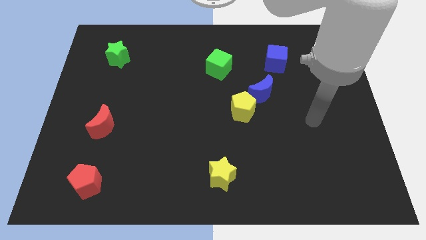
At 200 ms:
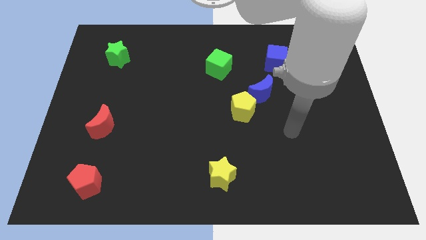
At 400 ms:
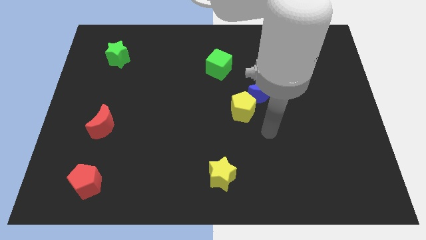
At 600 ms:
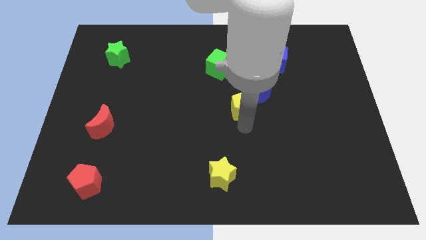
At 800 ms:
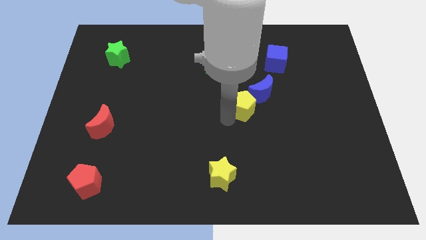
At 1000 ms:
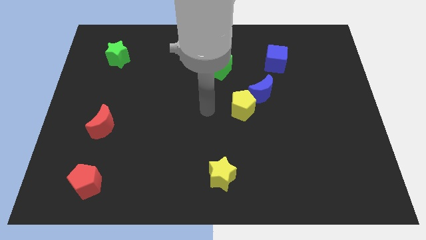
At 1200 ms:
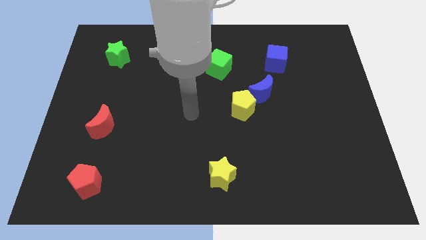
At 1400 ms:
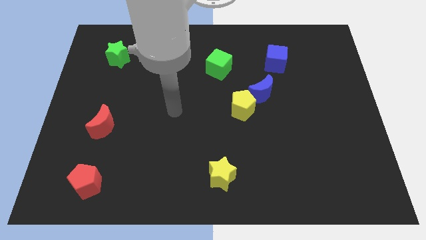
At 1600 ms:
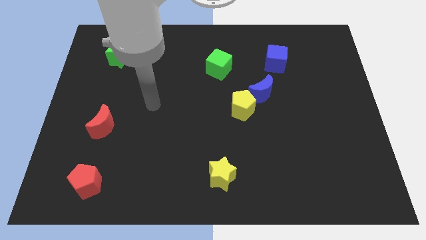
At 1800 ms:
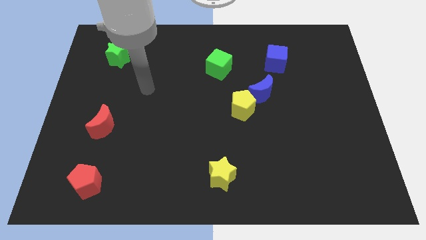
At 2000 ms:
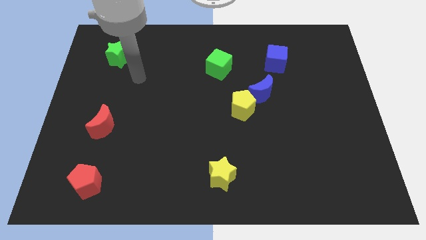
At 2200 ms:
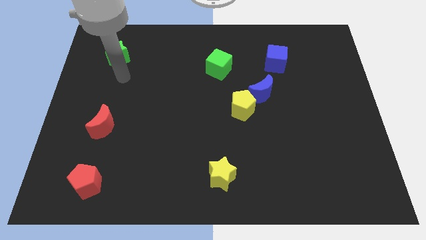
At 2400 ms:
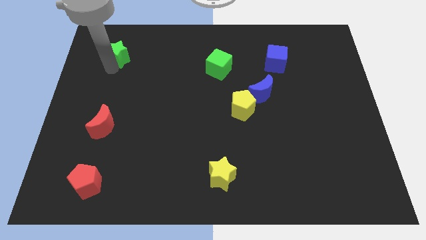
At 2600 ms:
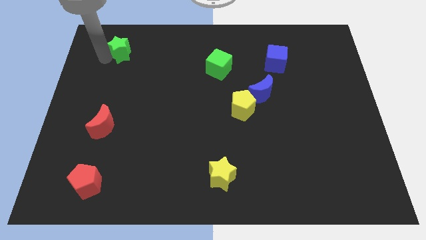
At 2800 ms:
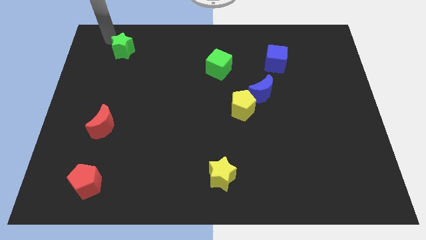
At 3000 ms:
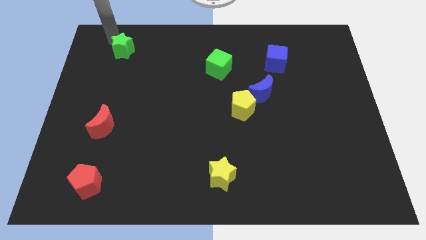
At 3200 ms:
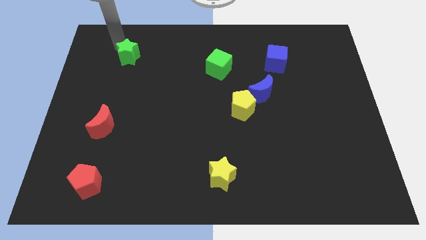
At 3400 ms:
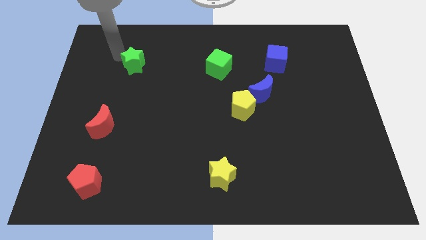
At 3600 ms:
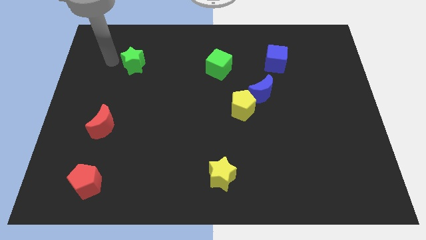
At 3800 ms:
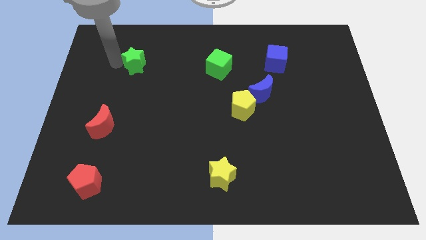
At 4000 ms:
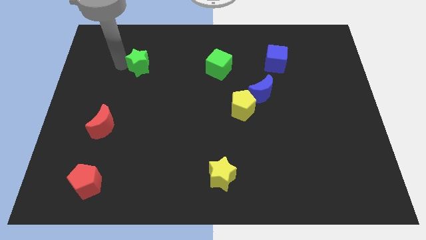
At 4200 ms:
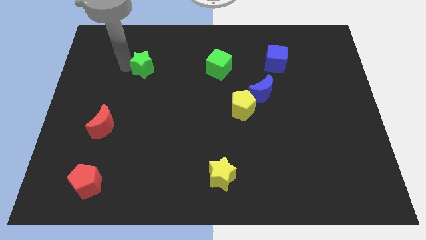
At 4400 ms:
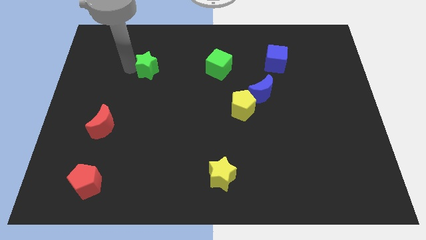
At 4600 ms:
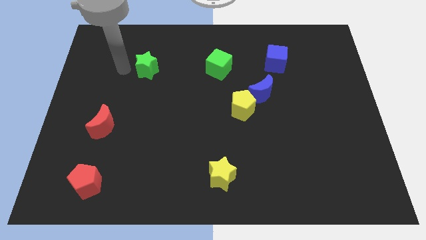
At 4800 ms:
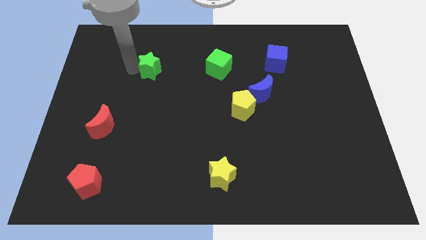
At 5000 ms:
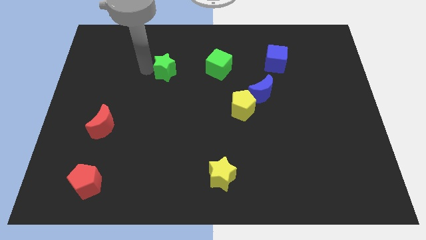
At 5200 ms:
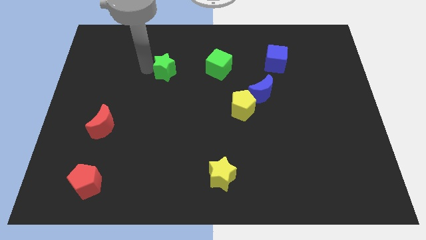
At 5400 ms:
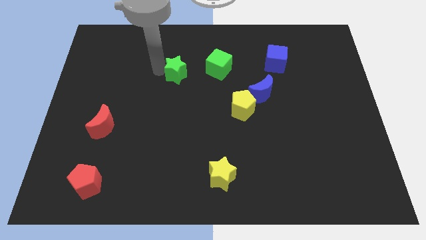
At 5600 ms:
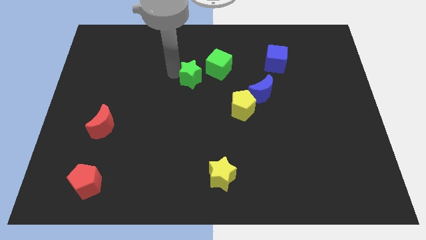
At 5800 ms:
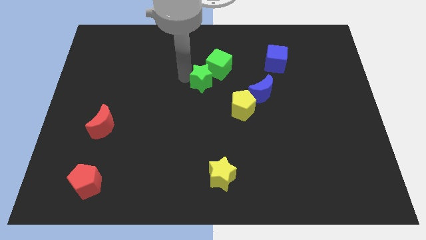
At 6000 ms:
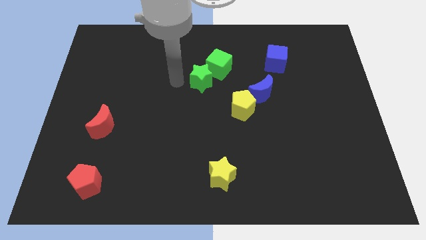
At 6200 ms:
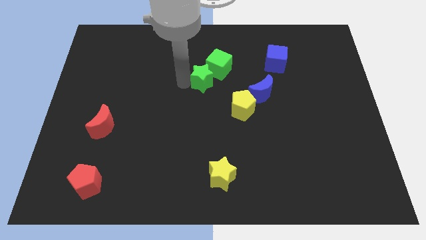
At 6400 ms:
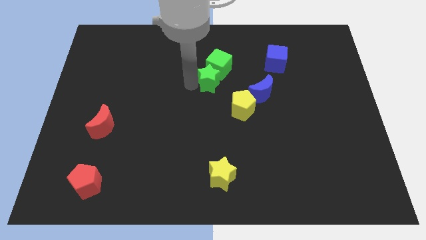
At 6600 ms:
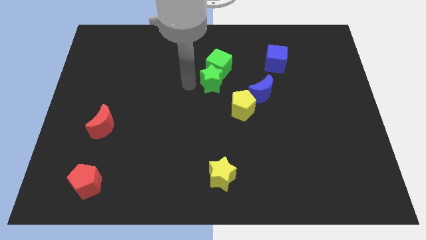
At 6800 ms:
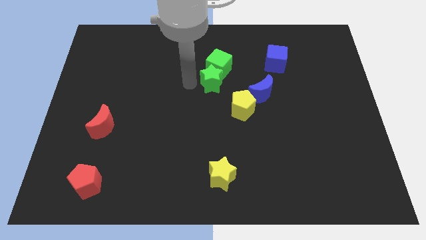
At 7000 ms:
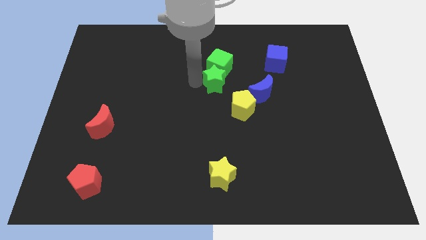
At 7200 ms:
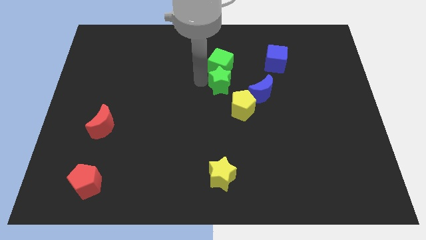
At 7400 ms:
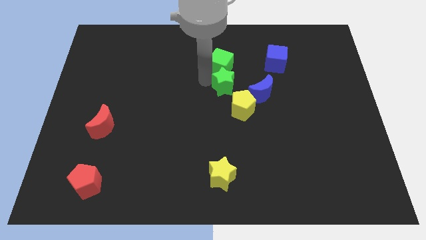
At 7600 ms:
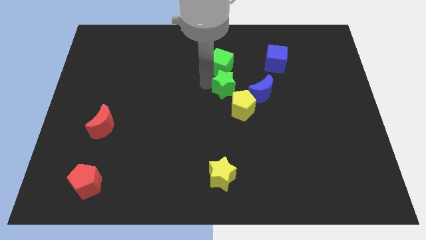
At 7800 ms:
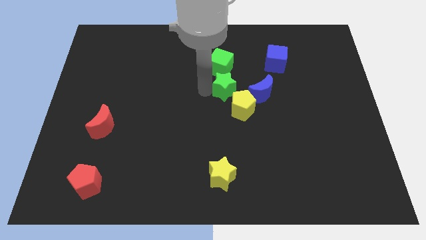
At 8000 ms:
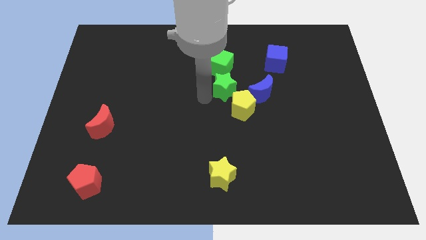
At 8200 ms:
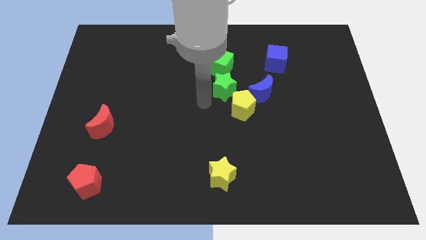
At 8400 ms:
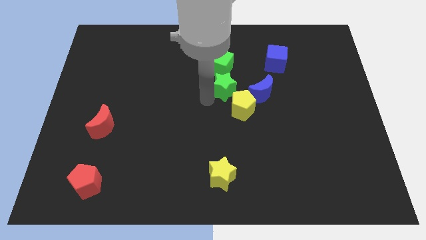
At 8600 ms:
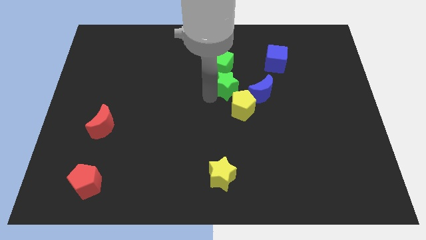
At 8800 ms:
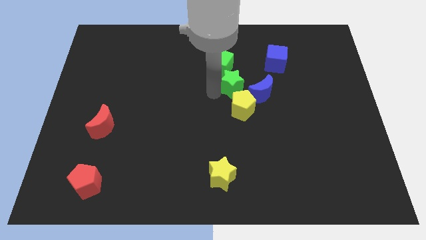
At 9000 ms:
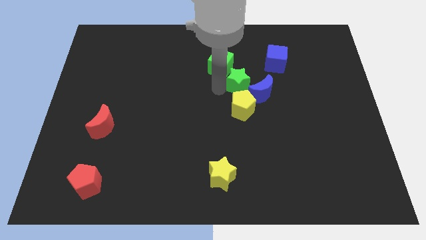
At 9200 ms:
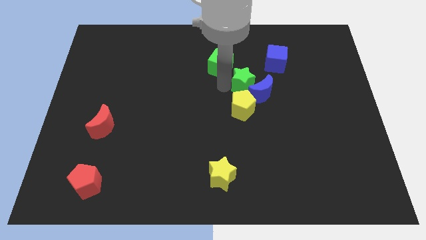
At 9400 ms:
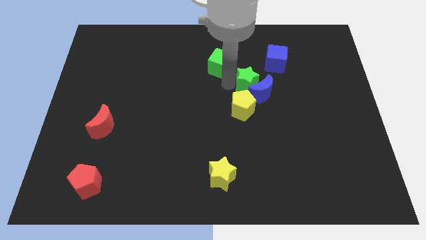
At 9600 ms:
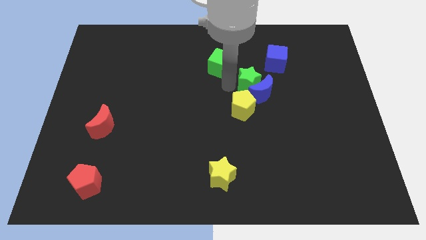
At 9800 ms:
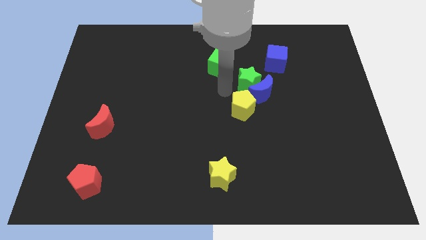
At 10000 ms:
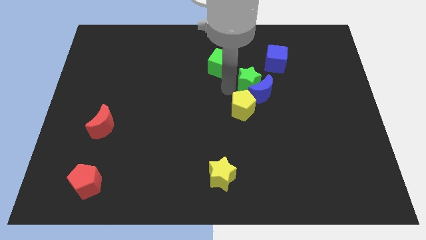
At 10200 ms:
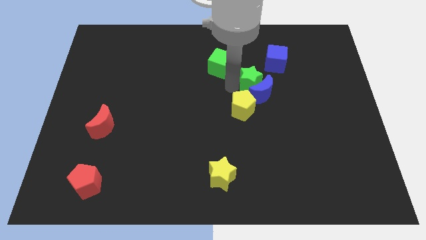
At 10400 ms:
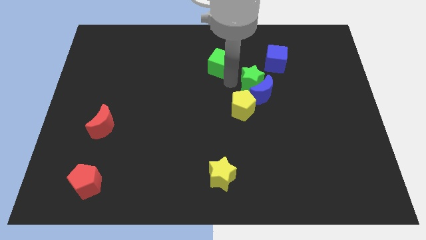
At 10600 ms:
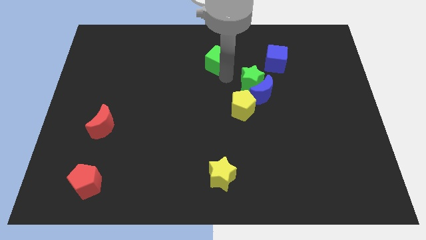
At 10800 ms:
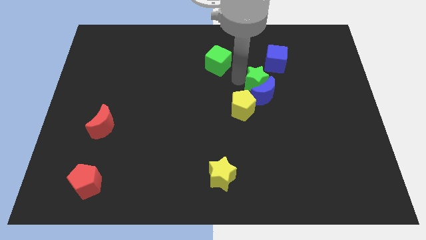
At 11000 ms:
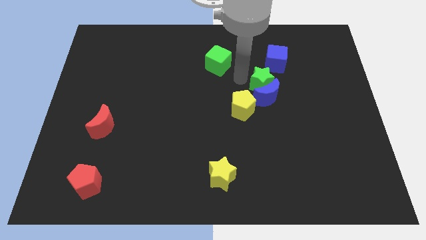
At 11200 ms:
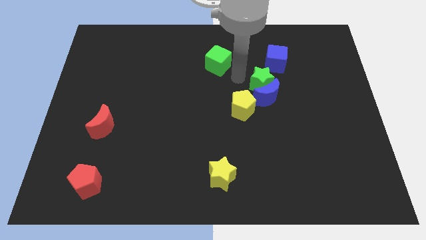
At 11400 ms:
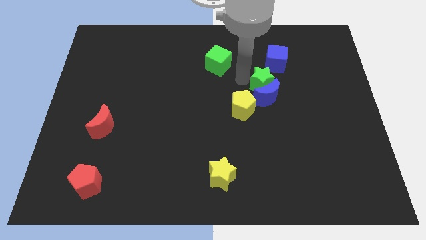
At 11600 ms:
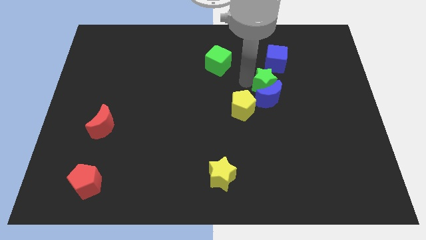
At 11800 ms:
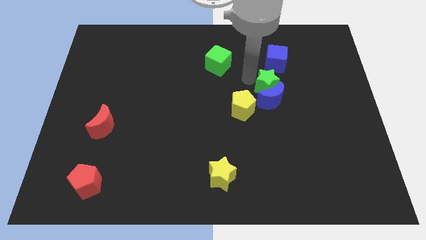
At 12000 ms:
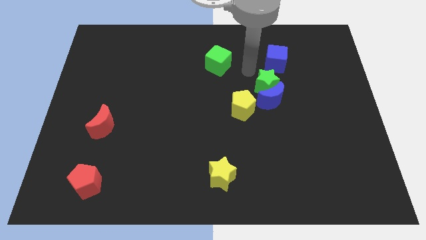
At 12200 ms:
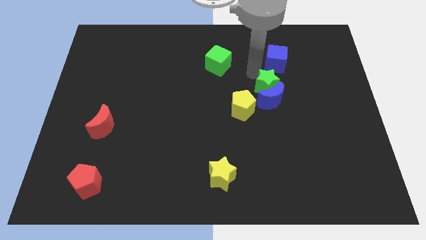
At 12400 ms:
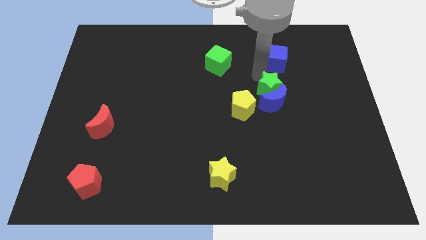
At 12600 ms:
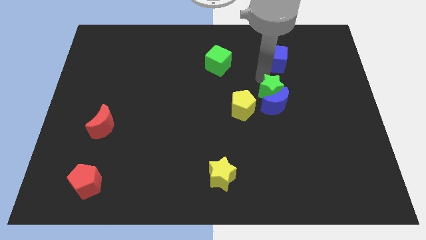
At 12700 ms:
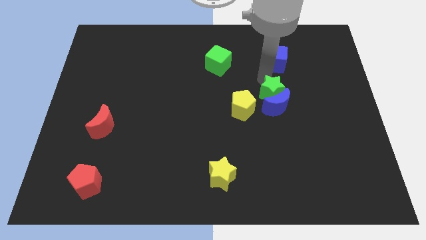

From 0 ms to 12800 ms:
push the green star to the right of the yellow pentagon
